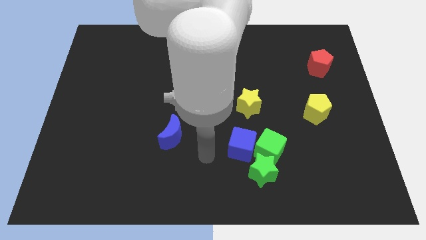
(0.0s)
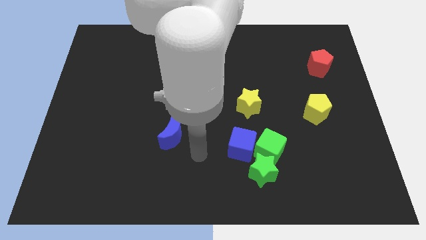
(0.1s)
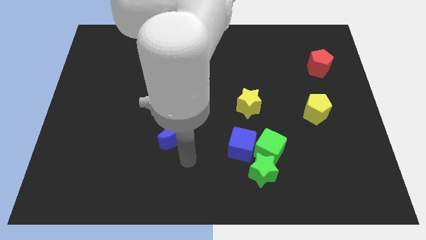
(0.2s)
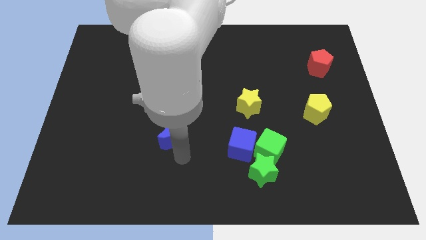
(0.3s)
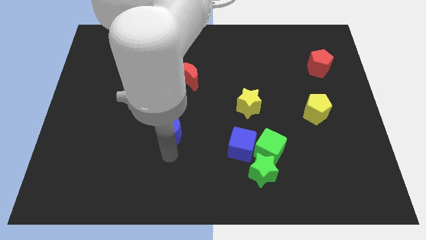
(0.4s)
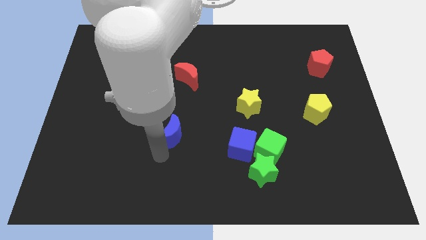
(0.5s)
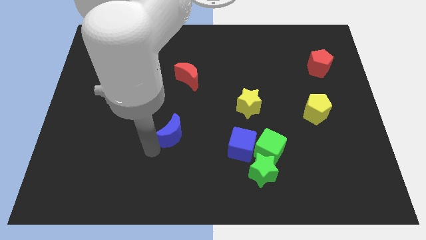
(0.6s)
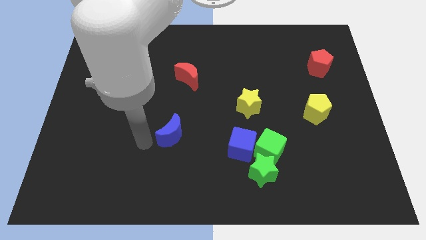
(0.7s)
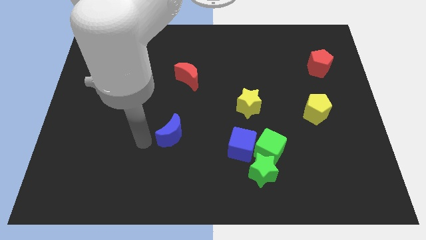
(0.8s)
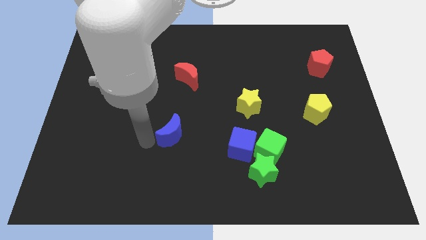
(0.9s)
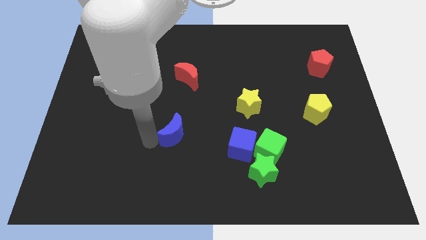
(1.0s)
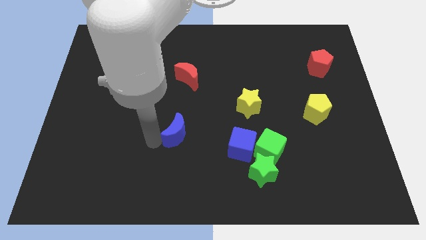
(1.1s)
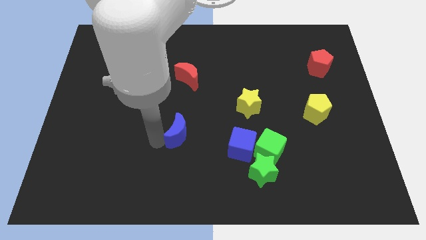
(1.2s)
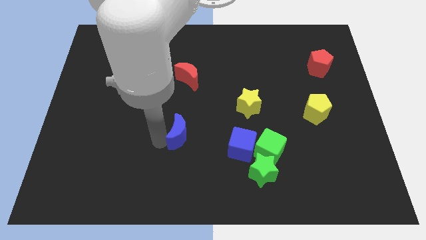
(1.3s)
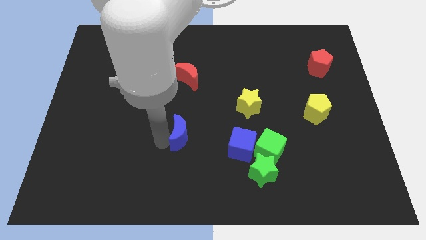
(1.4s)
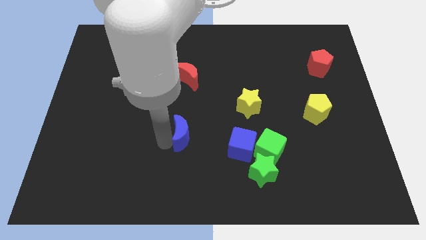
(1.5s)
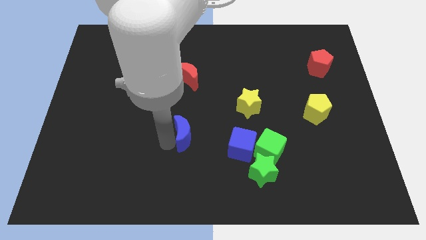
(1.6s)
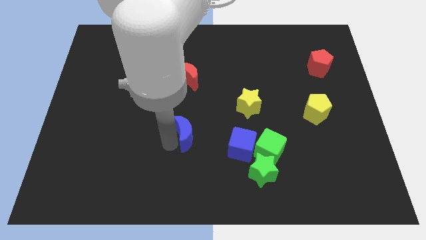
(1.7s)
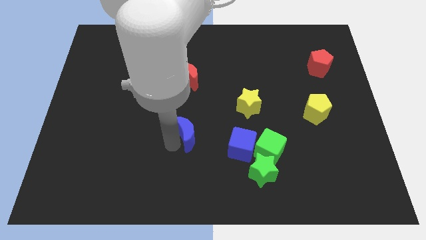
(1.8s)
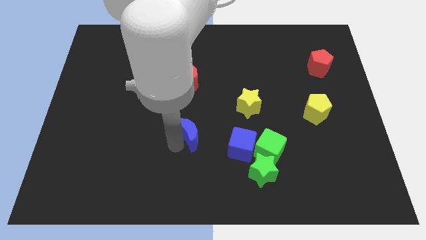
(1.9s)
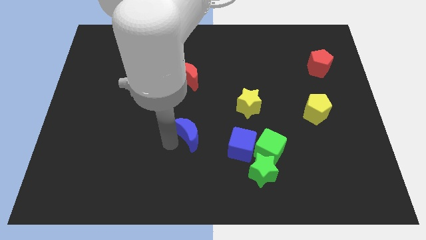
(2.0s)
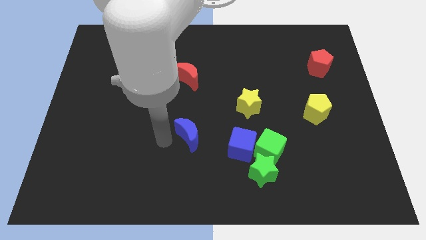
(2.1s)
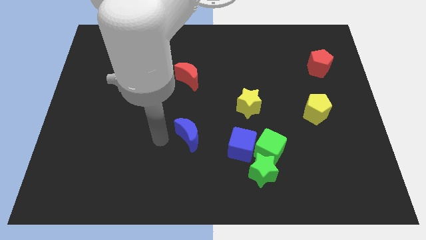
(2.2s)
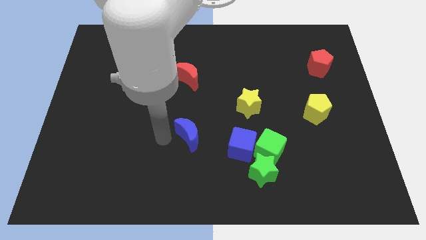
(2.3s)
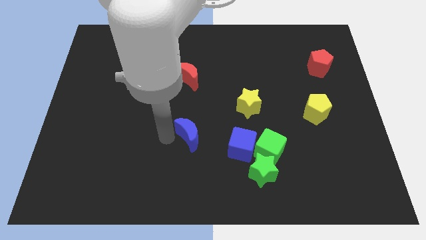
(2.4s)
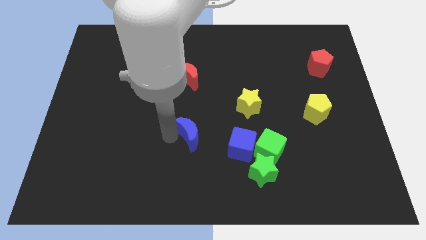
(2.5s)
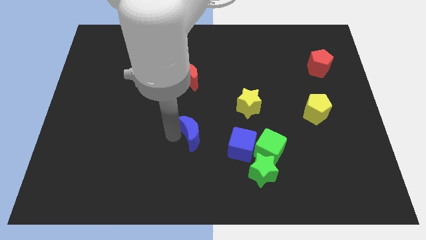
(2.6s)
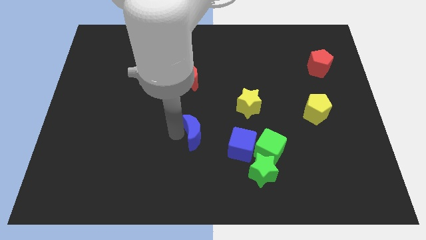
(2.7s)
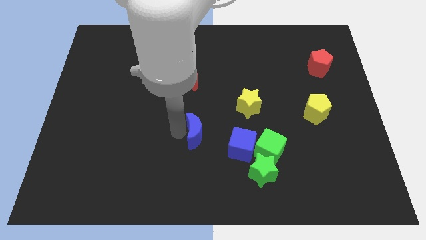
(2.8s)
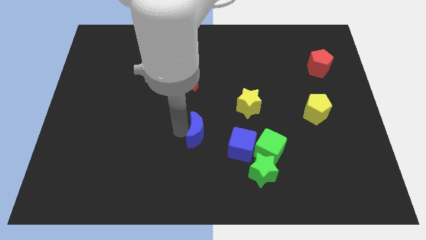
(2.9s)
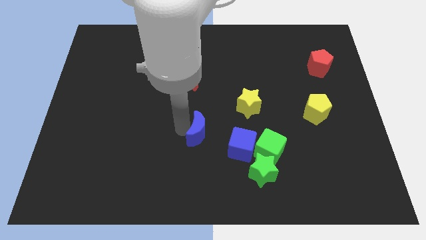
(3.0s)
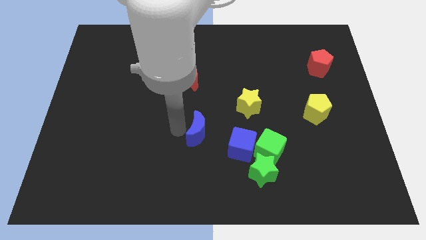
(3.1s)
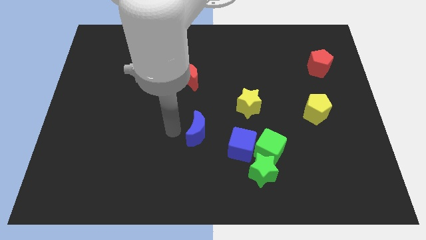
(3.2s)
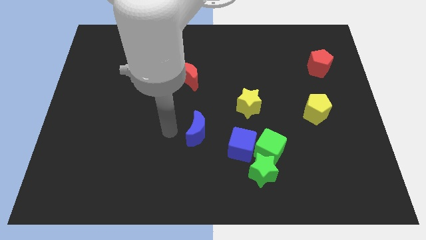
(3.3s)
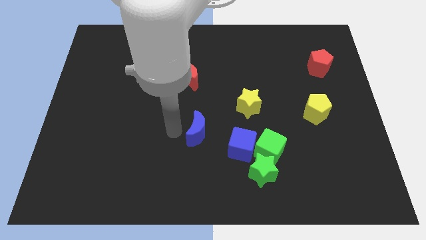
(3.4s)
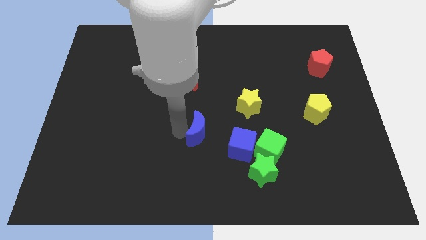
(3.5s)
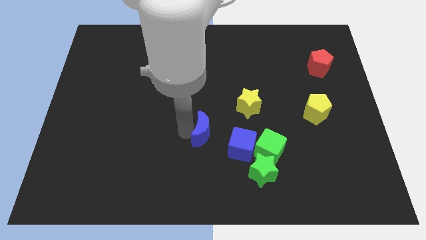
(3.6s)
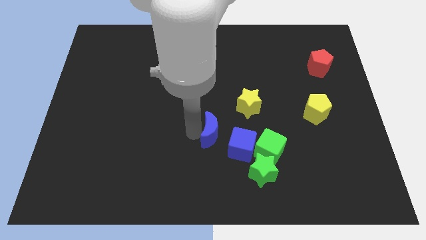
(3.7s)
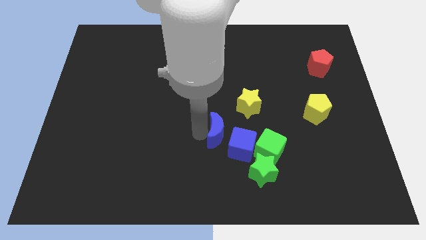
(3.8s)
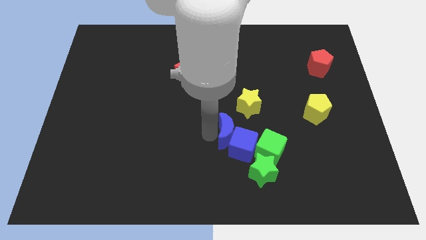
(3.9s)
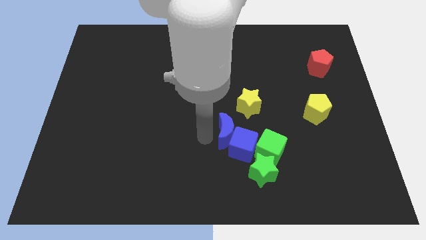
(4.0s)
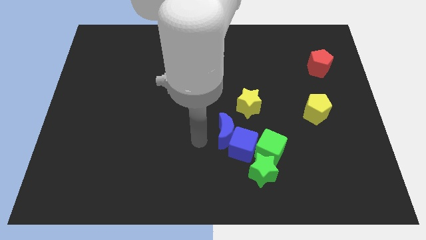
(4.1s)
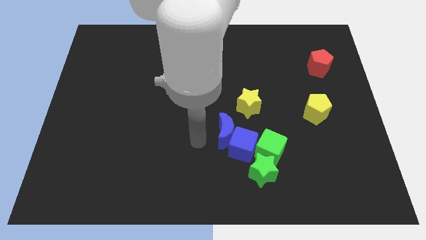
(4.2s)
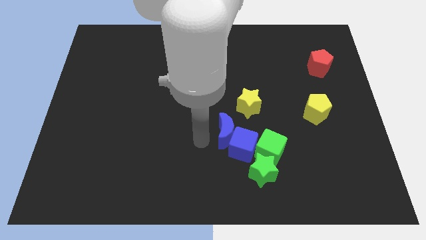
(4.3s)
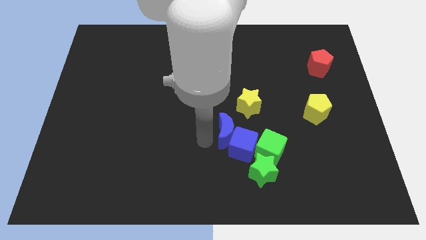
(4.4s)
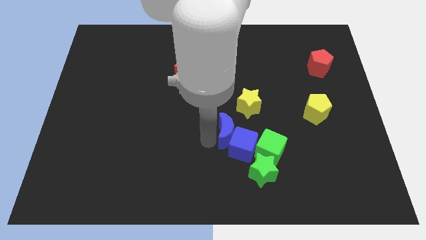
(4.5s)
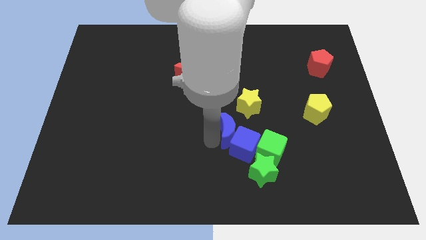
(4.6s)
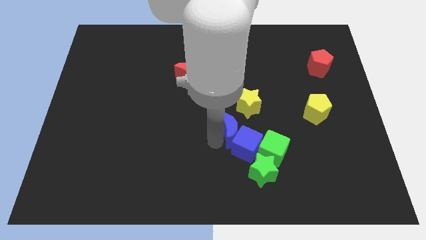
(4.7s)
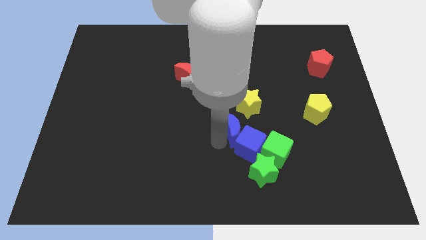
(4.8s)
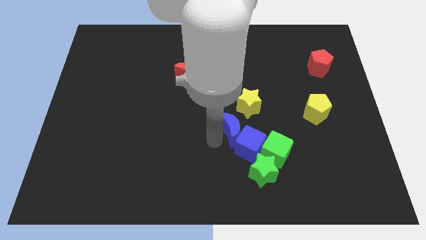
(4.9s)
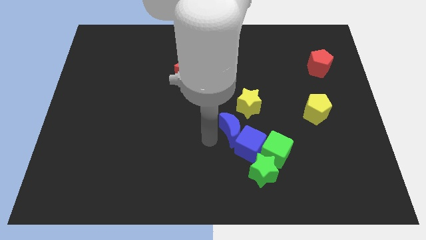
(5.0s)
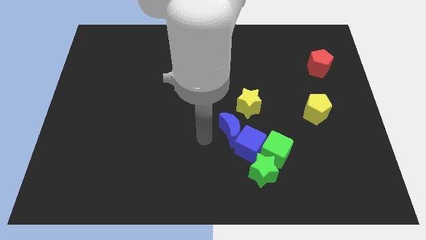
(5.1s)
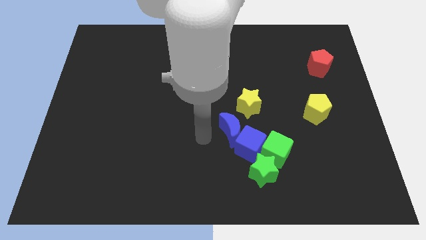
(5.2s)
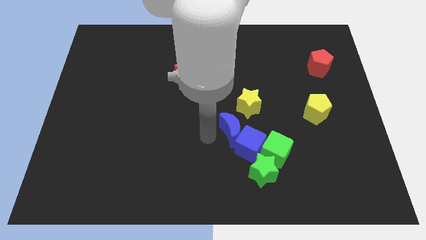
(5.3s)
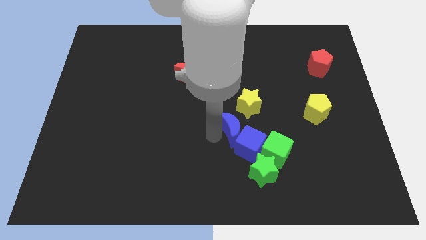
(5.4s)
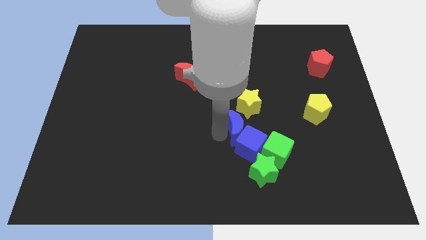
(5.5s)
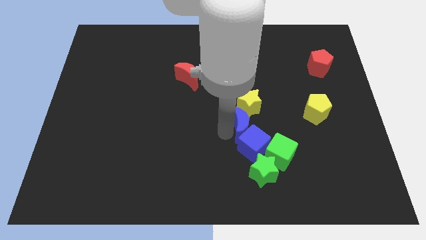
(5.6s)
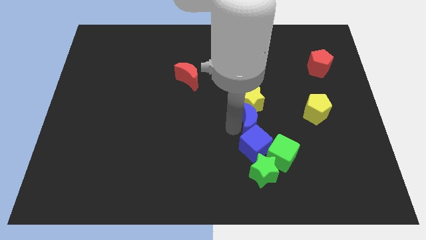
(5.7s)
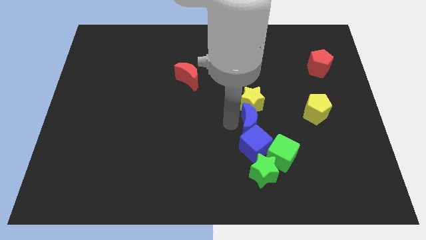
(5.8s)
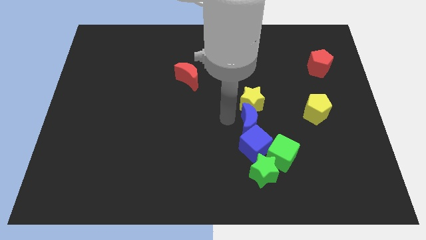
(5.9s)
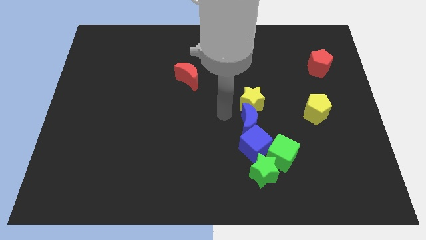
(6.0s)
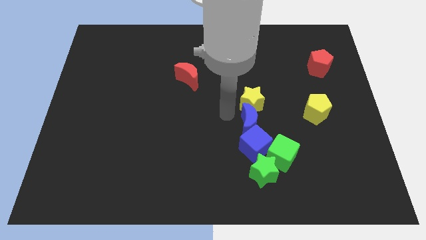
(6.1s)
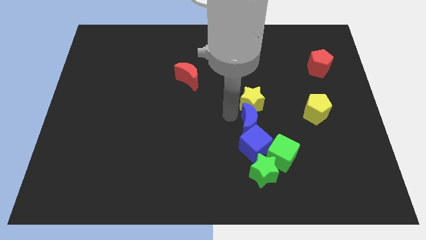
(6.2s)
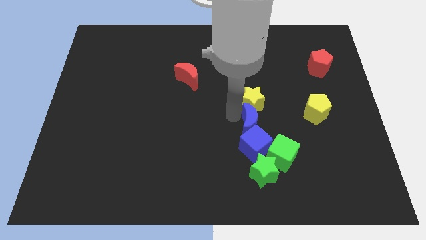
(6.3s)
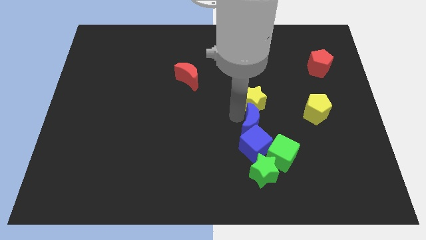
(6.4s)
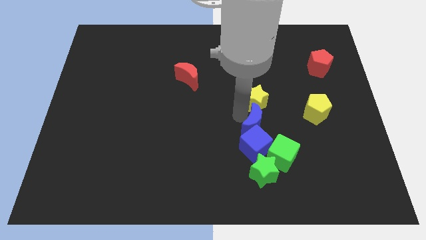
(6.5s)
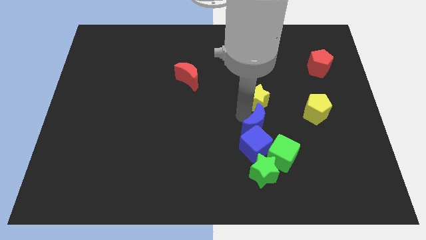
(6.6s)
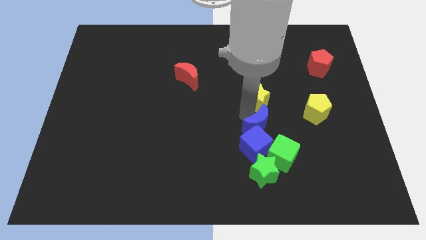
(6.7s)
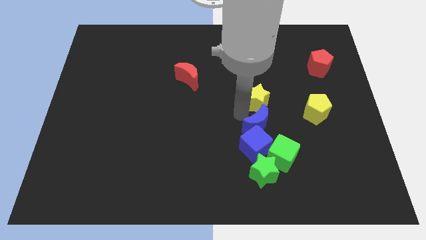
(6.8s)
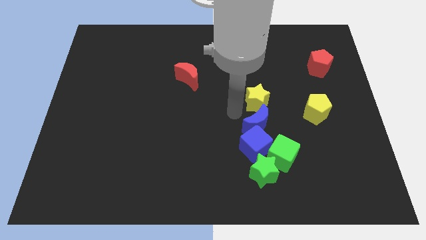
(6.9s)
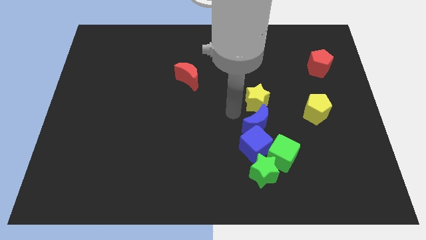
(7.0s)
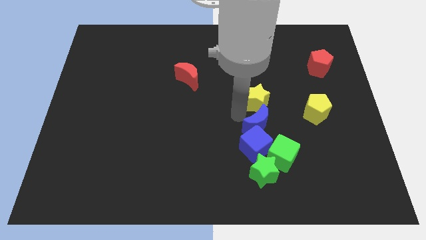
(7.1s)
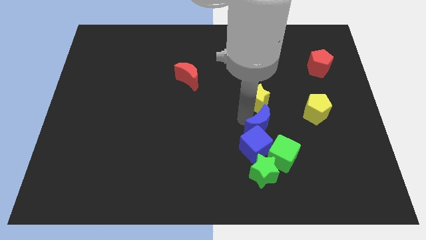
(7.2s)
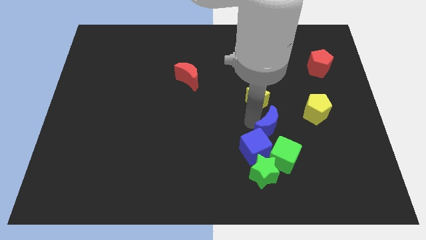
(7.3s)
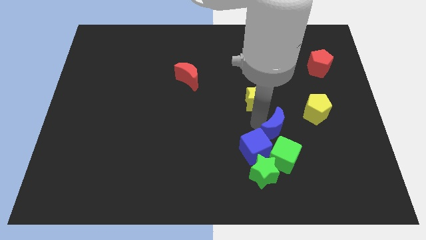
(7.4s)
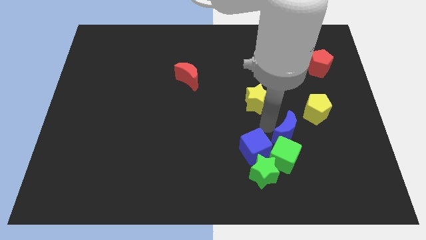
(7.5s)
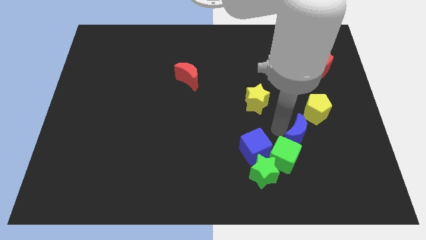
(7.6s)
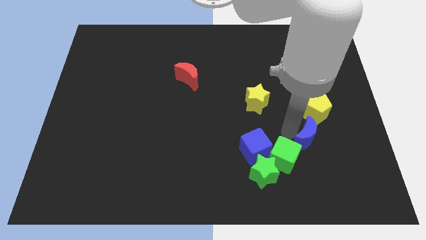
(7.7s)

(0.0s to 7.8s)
push the blue moon to the right side of the green cube
